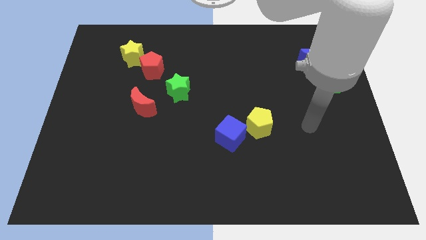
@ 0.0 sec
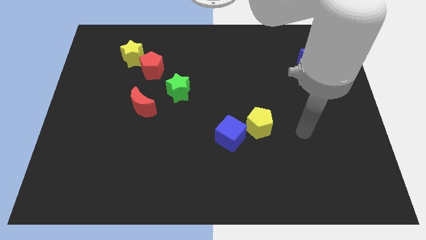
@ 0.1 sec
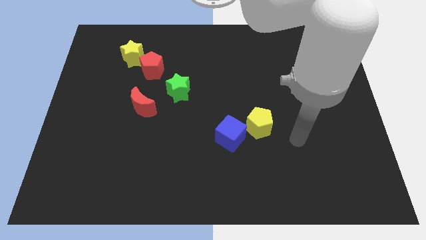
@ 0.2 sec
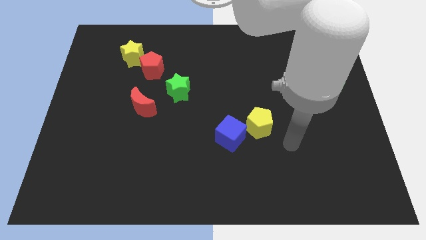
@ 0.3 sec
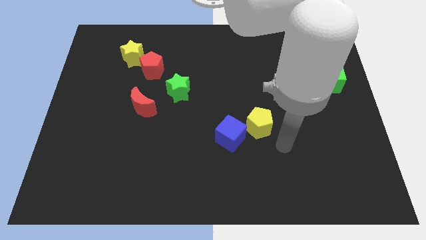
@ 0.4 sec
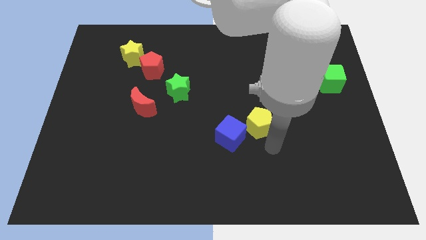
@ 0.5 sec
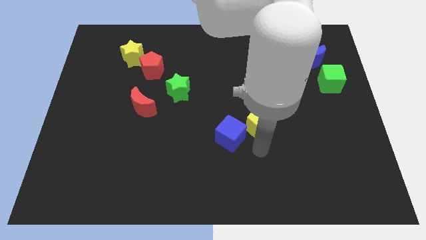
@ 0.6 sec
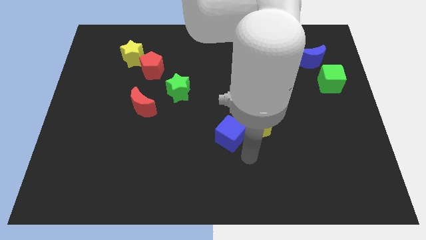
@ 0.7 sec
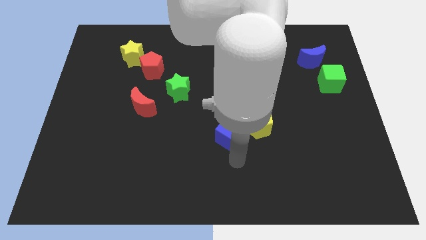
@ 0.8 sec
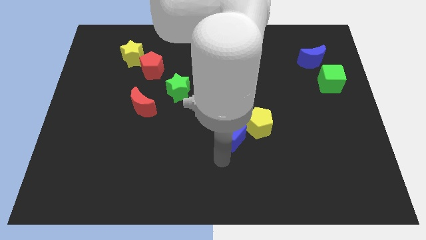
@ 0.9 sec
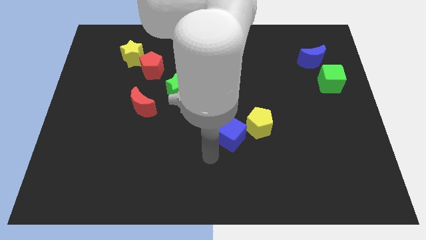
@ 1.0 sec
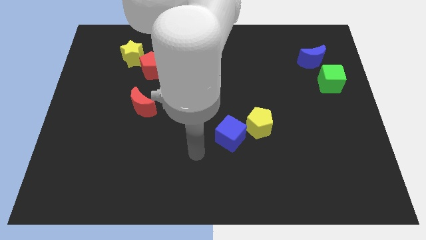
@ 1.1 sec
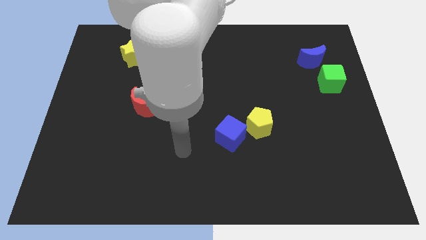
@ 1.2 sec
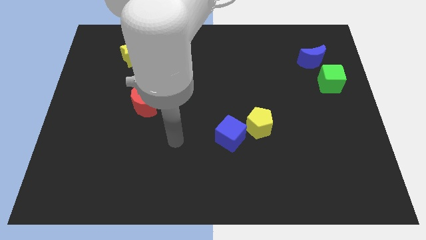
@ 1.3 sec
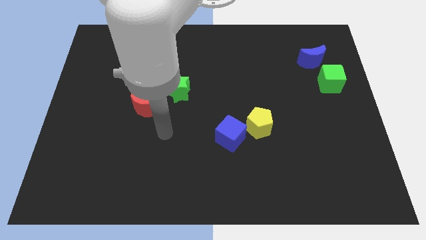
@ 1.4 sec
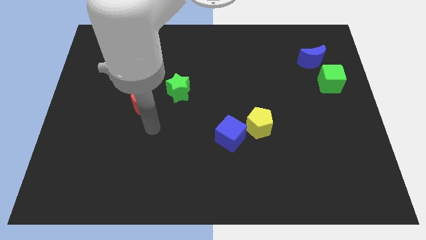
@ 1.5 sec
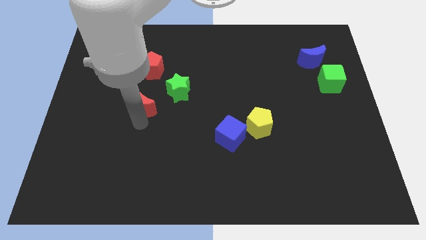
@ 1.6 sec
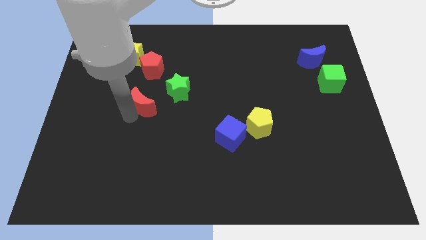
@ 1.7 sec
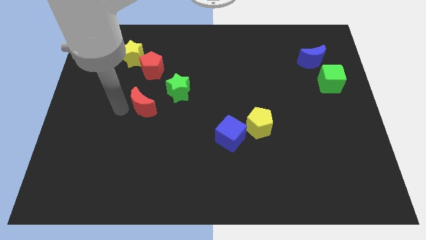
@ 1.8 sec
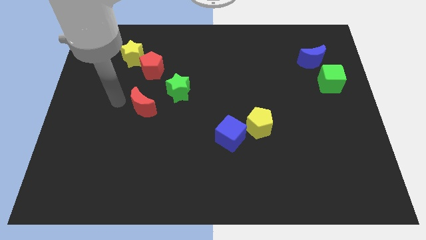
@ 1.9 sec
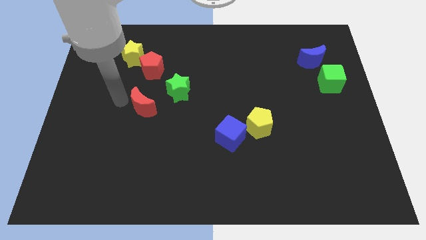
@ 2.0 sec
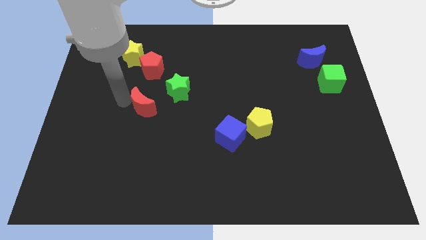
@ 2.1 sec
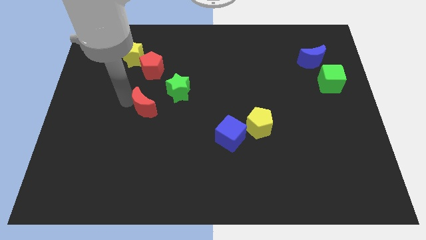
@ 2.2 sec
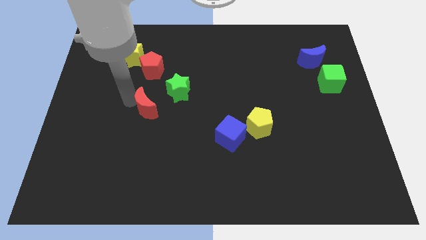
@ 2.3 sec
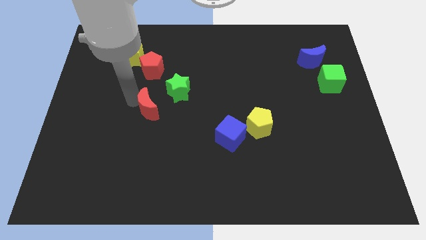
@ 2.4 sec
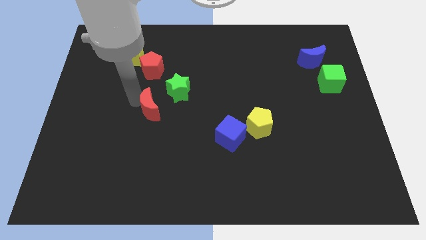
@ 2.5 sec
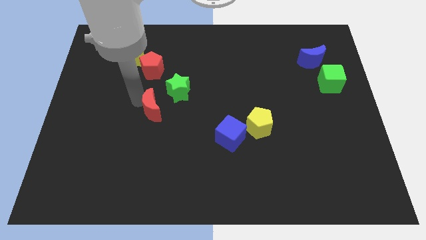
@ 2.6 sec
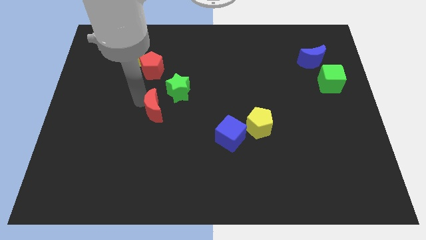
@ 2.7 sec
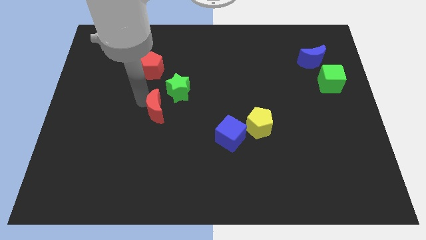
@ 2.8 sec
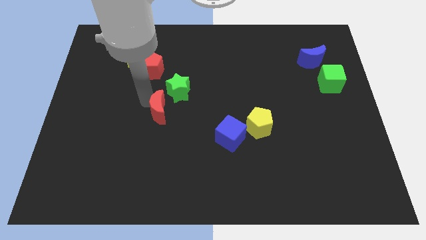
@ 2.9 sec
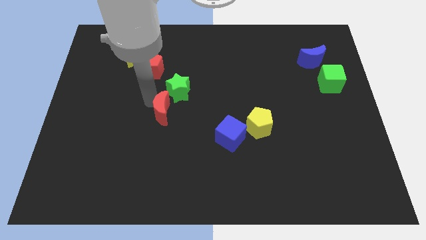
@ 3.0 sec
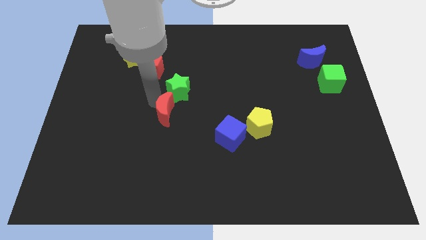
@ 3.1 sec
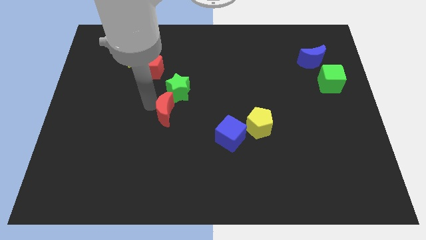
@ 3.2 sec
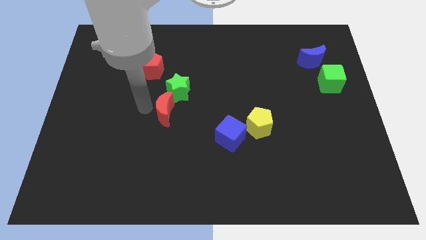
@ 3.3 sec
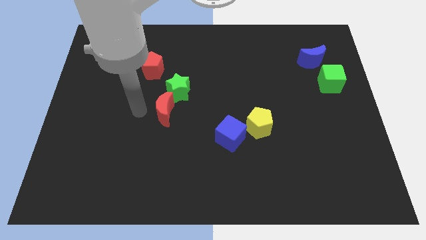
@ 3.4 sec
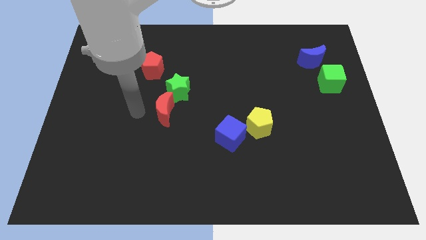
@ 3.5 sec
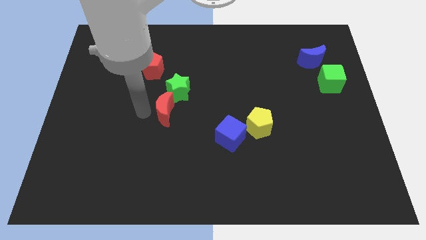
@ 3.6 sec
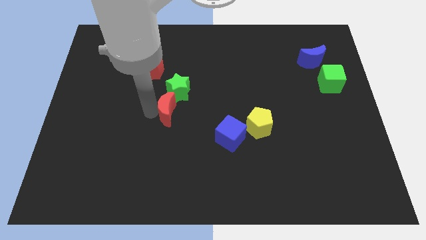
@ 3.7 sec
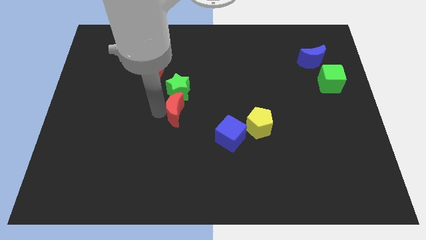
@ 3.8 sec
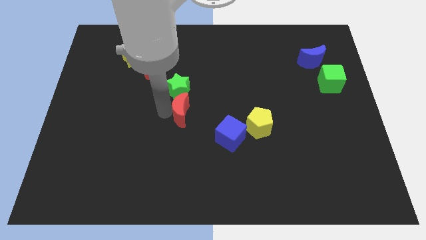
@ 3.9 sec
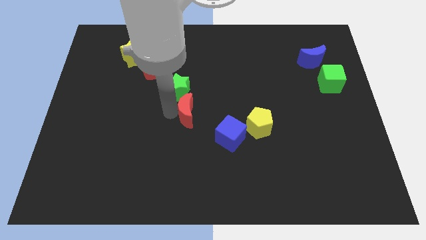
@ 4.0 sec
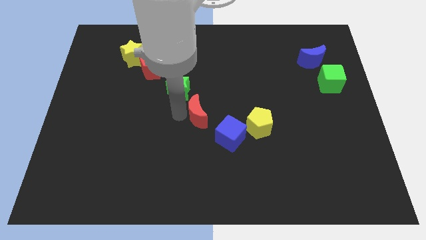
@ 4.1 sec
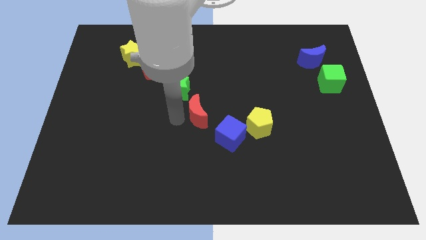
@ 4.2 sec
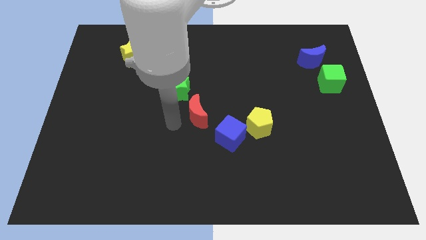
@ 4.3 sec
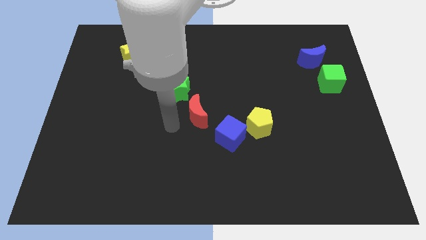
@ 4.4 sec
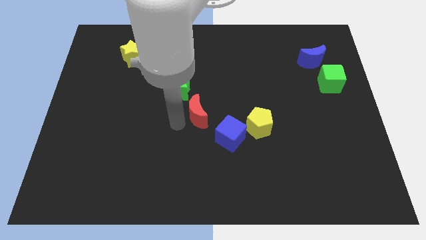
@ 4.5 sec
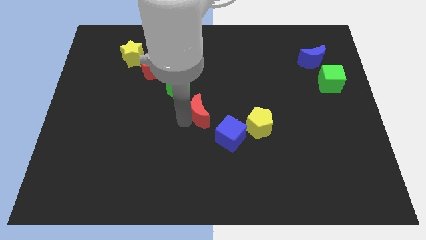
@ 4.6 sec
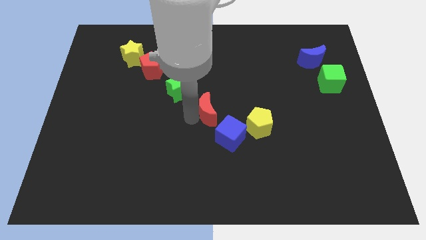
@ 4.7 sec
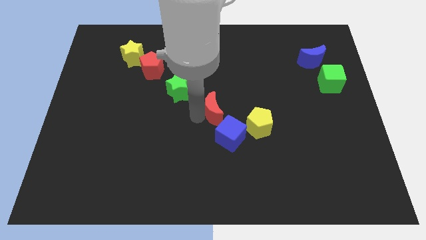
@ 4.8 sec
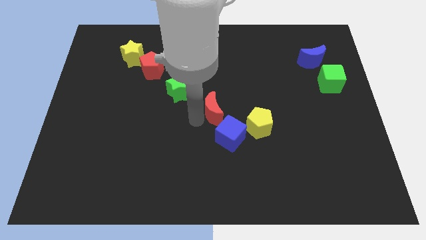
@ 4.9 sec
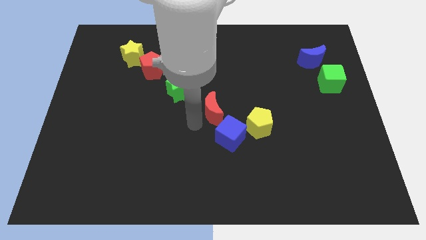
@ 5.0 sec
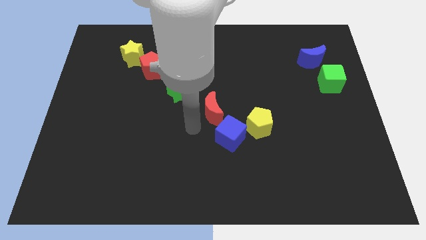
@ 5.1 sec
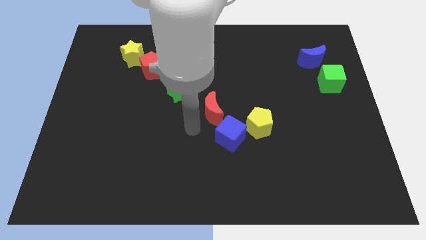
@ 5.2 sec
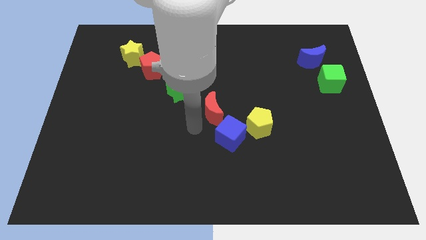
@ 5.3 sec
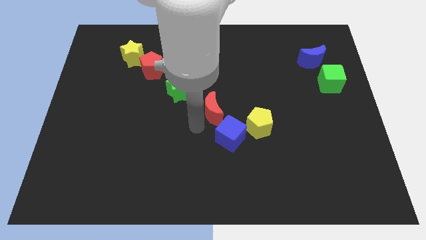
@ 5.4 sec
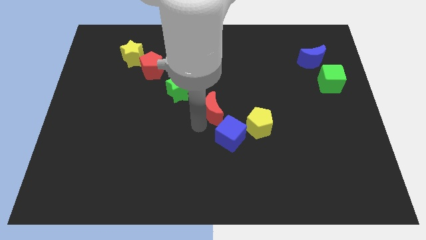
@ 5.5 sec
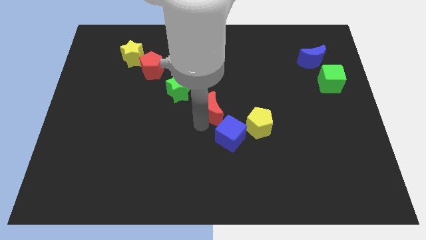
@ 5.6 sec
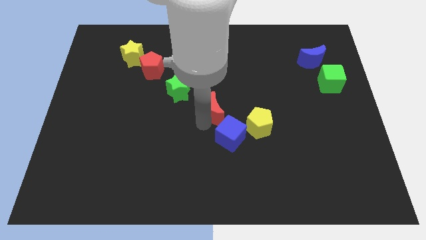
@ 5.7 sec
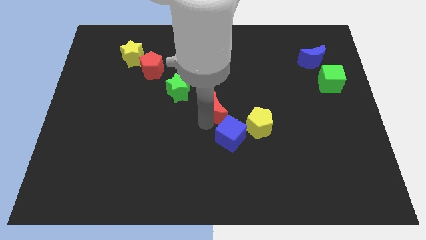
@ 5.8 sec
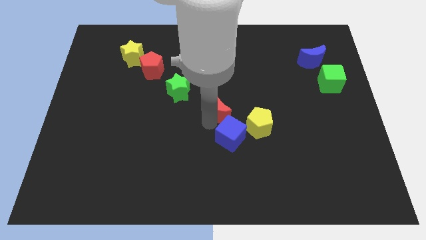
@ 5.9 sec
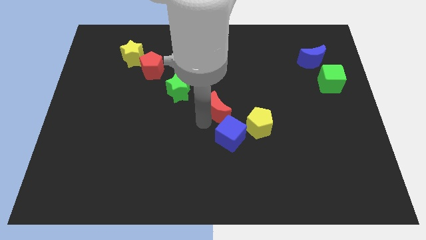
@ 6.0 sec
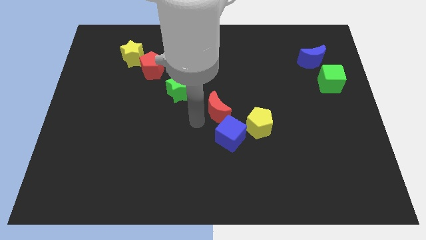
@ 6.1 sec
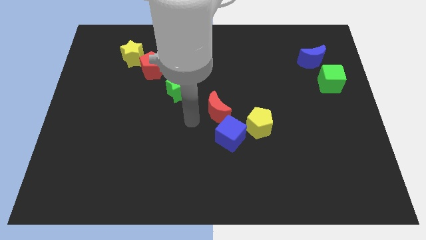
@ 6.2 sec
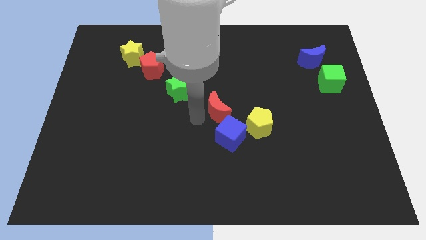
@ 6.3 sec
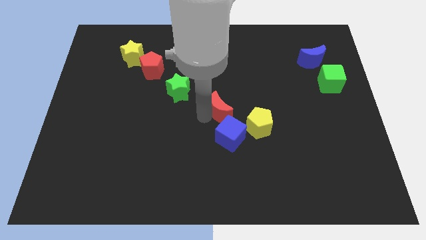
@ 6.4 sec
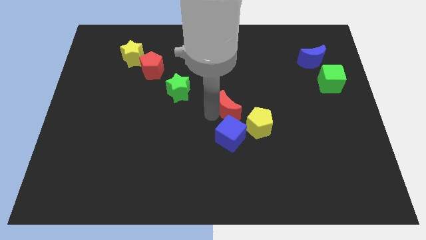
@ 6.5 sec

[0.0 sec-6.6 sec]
slide the red moon right

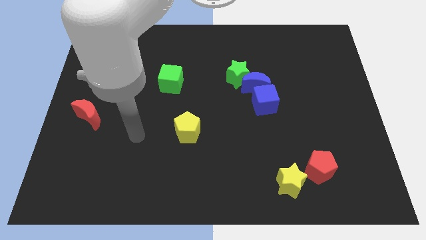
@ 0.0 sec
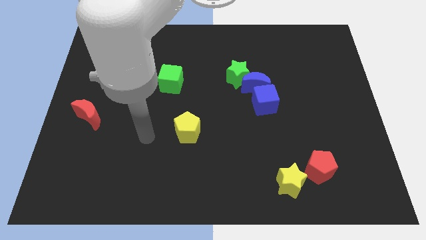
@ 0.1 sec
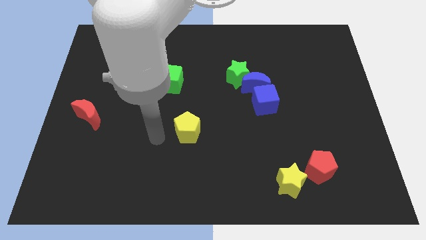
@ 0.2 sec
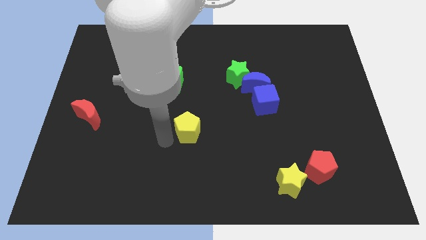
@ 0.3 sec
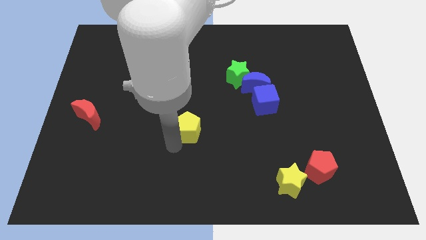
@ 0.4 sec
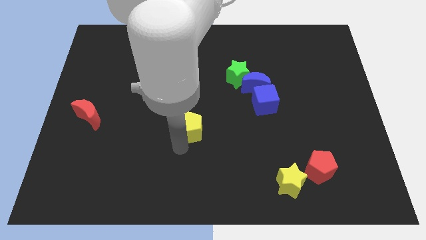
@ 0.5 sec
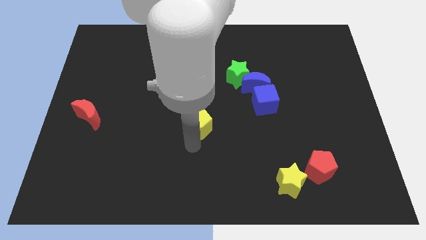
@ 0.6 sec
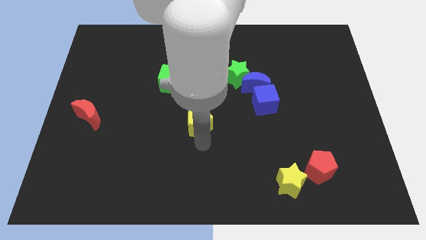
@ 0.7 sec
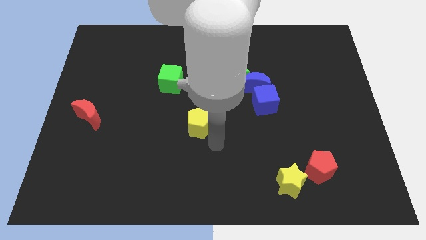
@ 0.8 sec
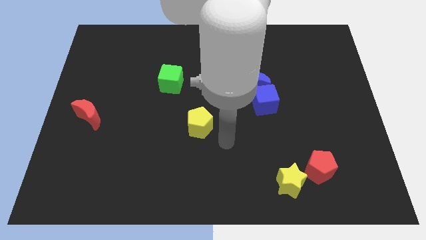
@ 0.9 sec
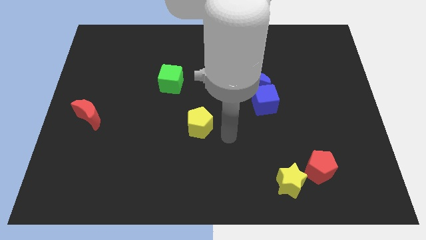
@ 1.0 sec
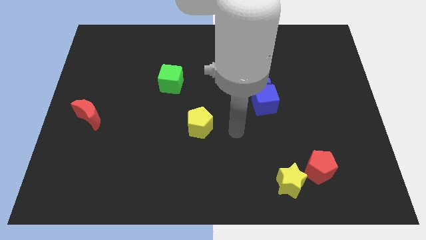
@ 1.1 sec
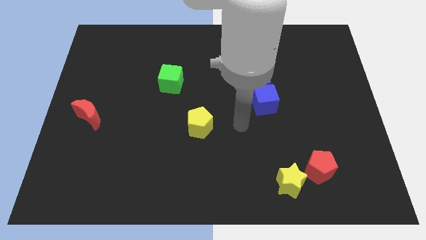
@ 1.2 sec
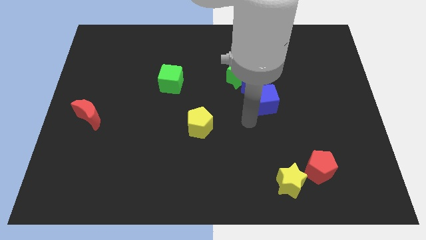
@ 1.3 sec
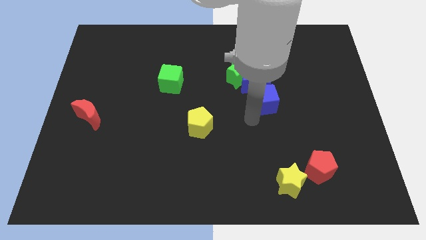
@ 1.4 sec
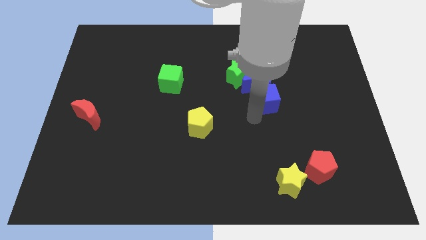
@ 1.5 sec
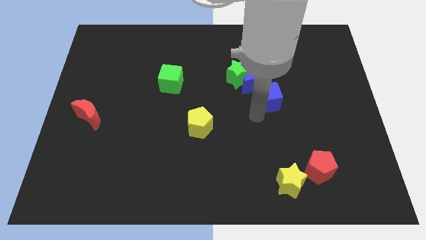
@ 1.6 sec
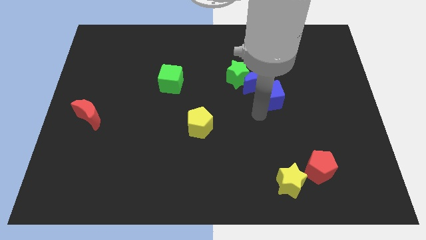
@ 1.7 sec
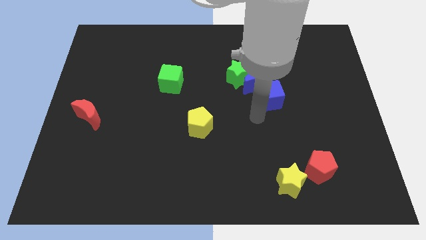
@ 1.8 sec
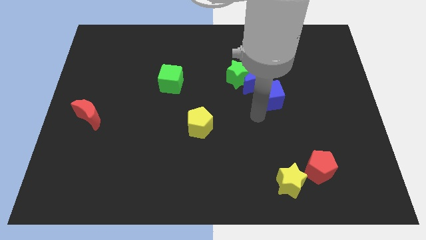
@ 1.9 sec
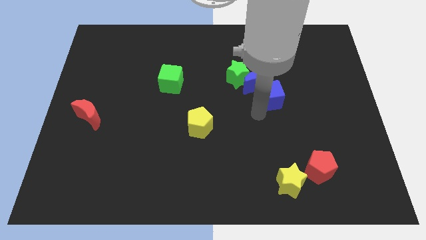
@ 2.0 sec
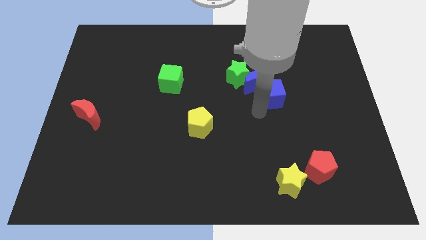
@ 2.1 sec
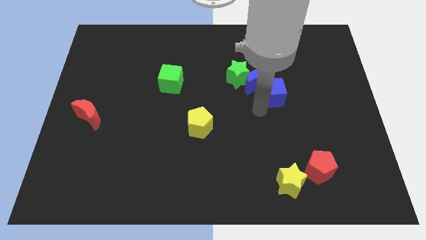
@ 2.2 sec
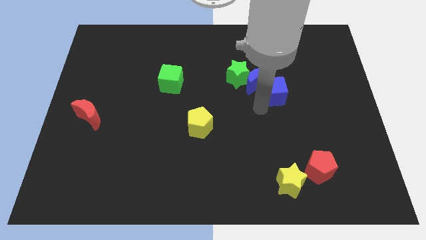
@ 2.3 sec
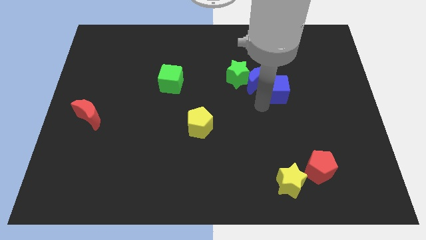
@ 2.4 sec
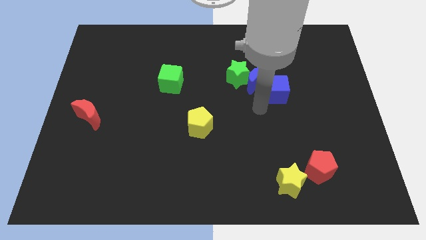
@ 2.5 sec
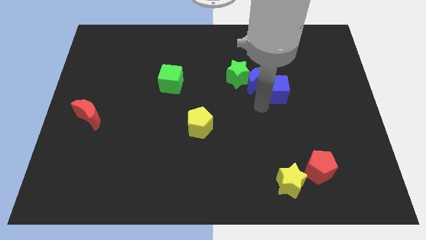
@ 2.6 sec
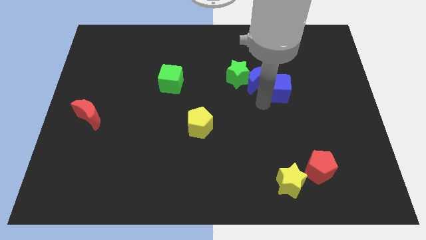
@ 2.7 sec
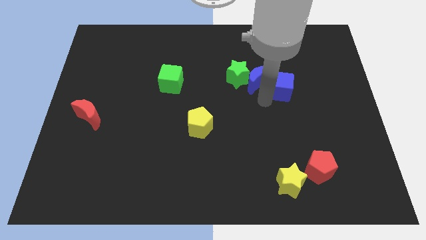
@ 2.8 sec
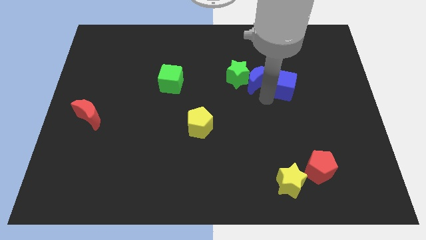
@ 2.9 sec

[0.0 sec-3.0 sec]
move the blue cube up and to the right slightly
